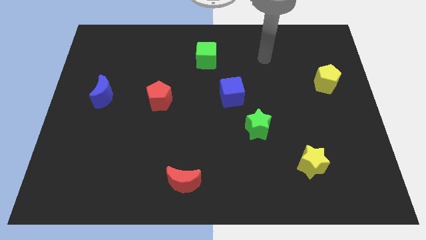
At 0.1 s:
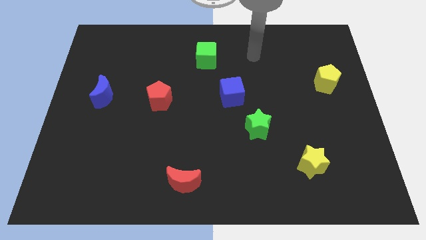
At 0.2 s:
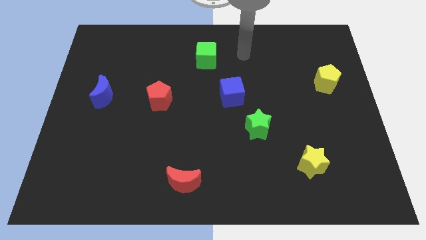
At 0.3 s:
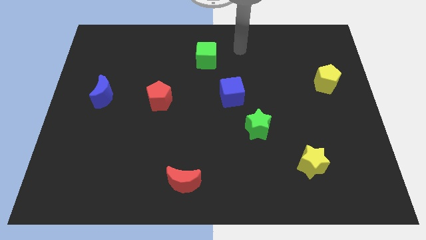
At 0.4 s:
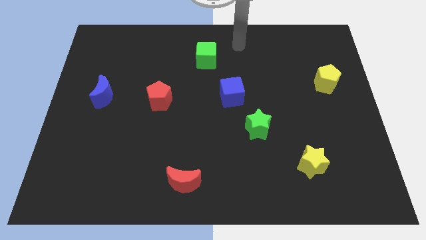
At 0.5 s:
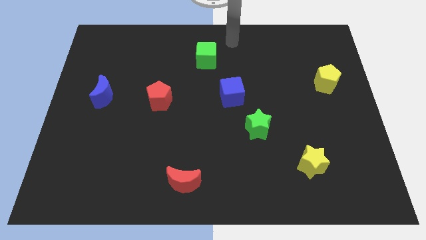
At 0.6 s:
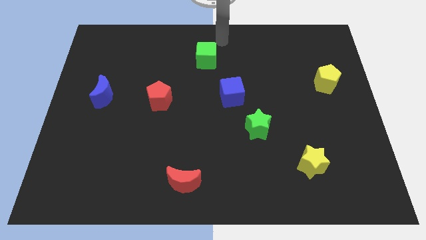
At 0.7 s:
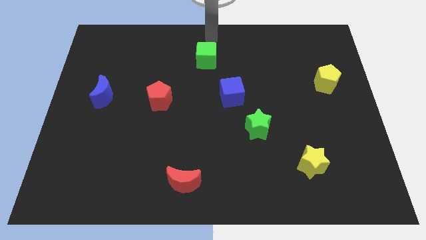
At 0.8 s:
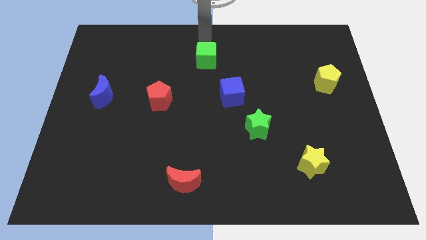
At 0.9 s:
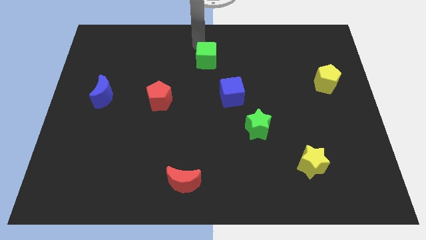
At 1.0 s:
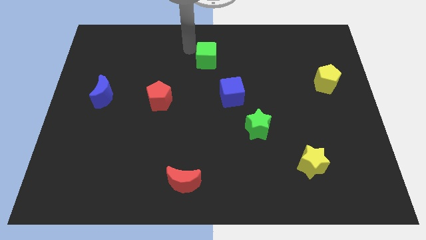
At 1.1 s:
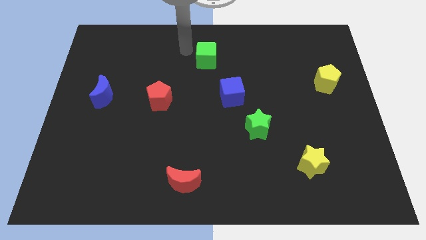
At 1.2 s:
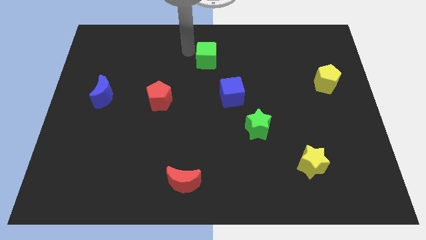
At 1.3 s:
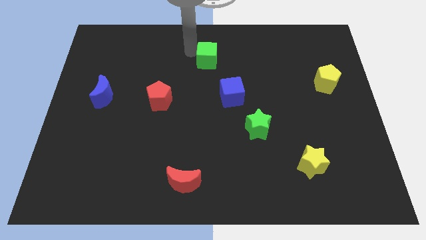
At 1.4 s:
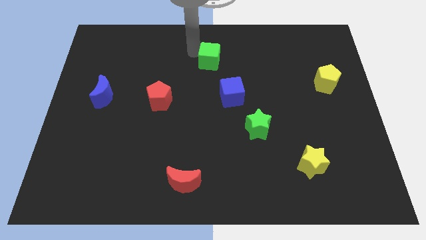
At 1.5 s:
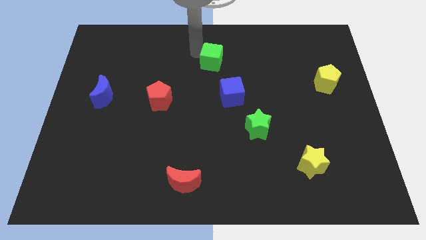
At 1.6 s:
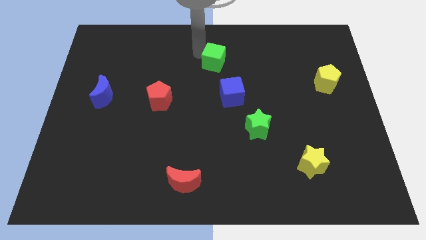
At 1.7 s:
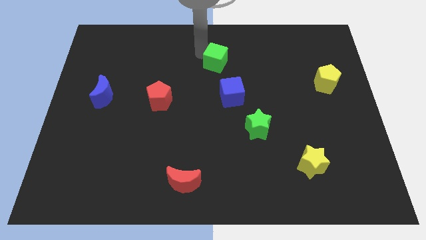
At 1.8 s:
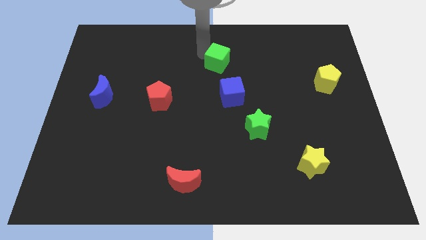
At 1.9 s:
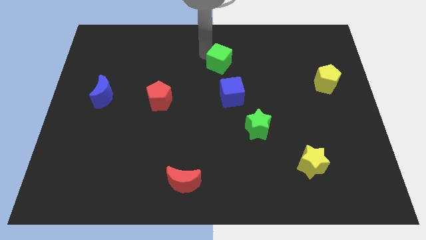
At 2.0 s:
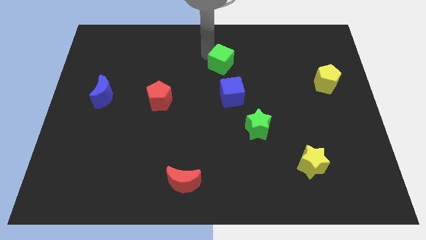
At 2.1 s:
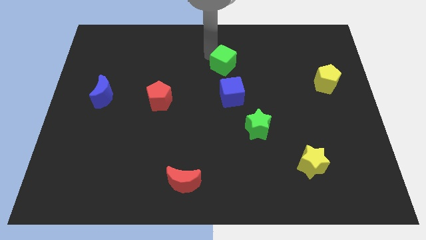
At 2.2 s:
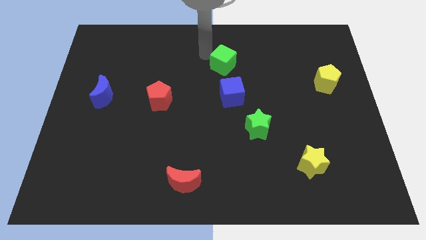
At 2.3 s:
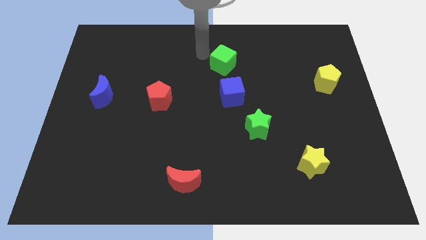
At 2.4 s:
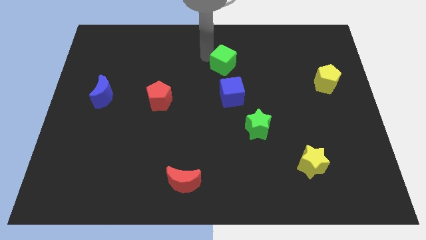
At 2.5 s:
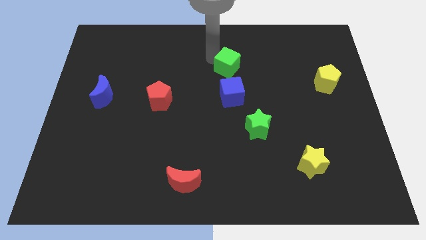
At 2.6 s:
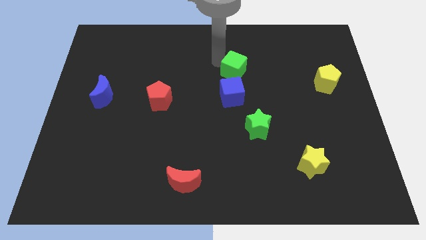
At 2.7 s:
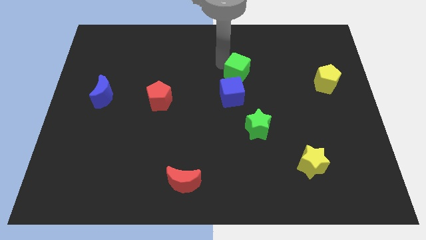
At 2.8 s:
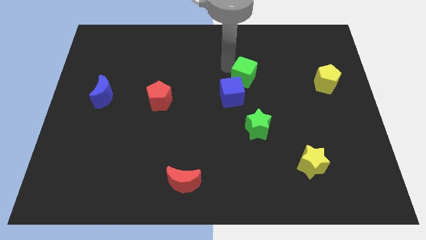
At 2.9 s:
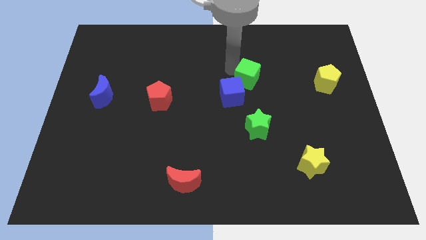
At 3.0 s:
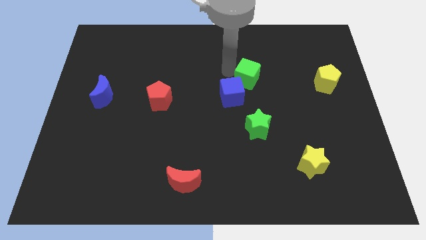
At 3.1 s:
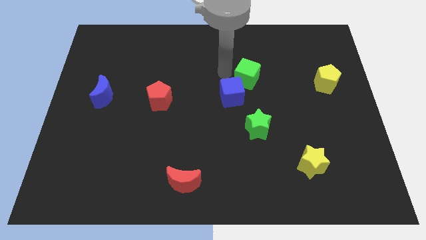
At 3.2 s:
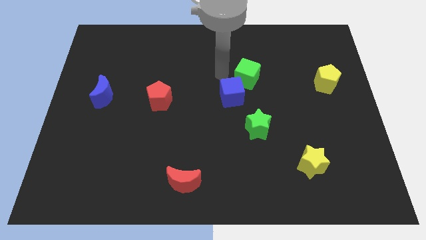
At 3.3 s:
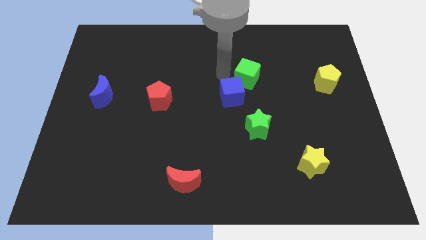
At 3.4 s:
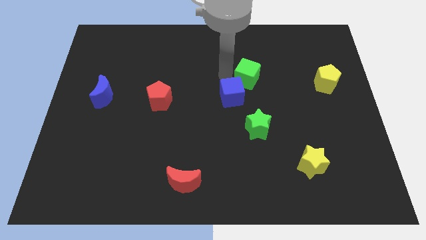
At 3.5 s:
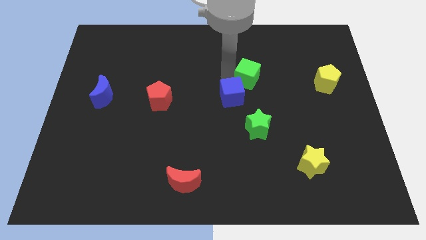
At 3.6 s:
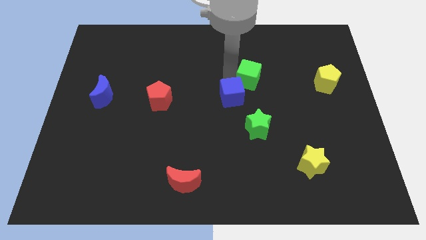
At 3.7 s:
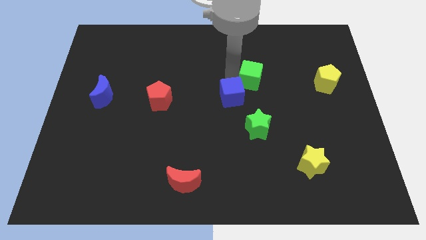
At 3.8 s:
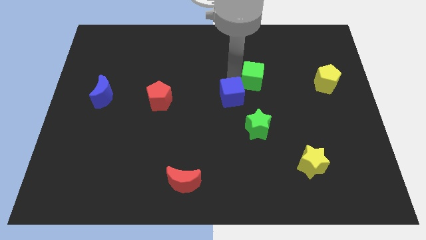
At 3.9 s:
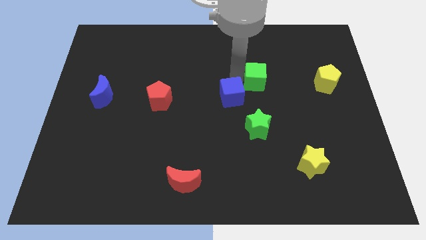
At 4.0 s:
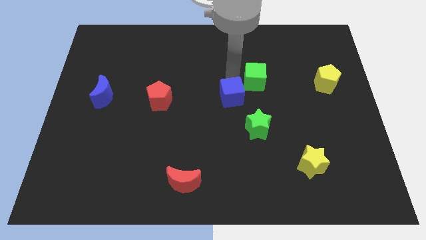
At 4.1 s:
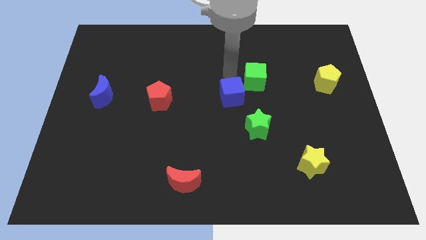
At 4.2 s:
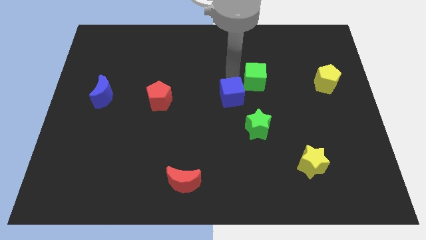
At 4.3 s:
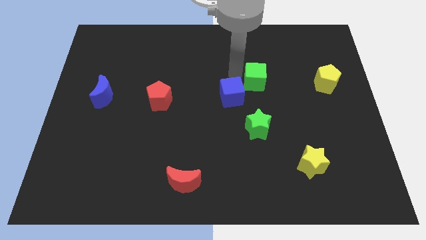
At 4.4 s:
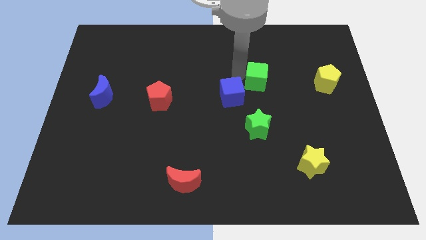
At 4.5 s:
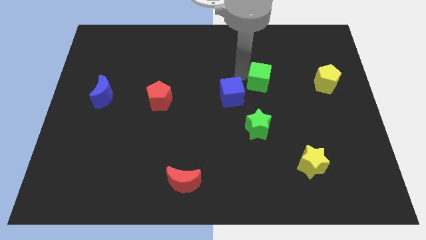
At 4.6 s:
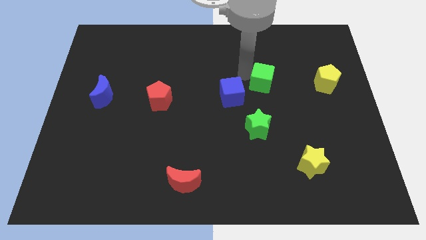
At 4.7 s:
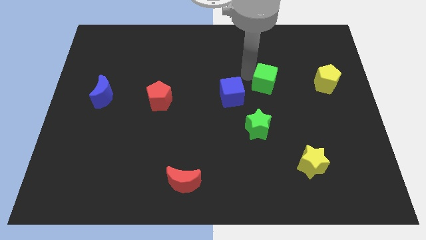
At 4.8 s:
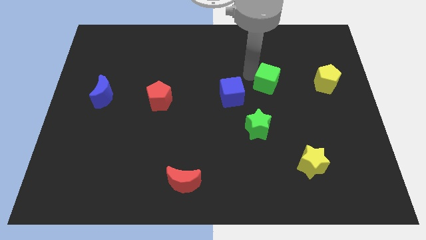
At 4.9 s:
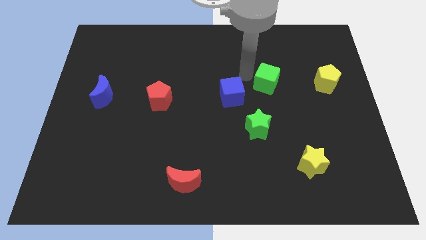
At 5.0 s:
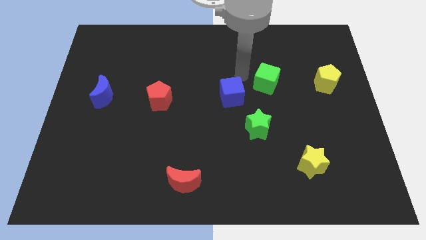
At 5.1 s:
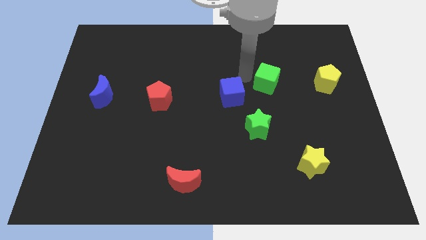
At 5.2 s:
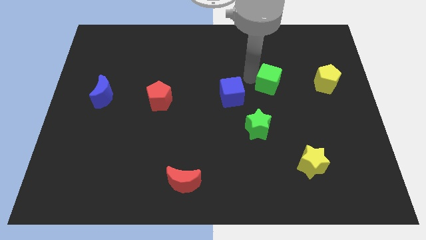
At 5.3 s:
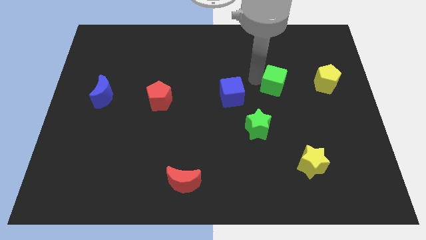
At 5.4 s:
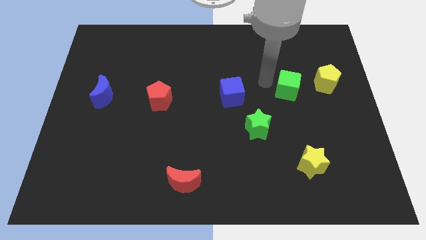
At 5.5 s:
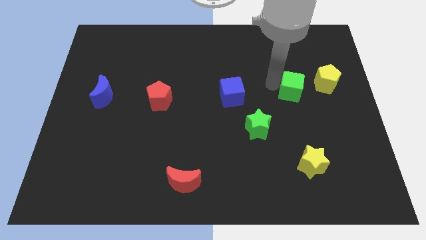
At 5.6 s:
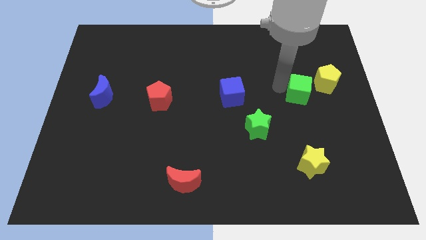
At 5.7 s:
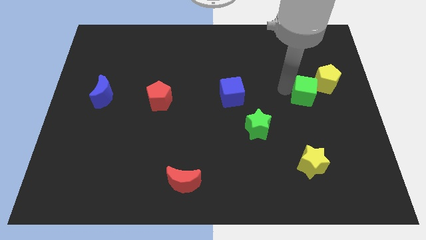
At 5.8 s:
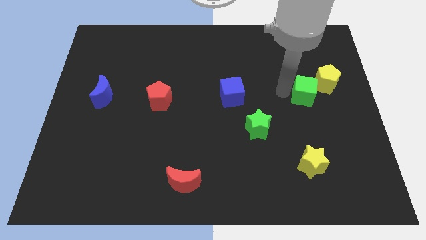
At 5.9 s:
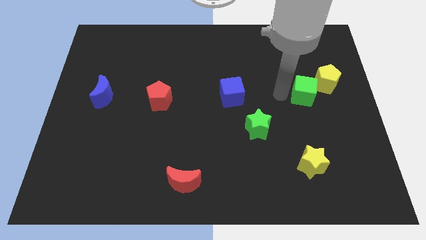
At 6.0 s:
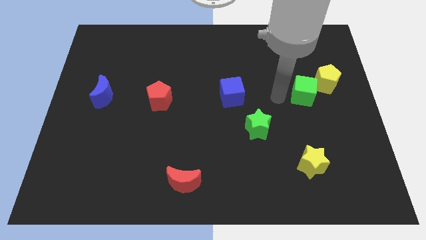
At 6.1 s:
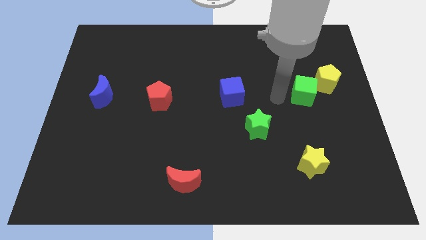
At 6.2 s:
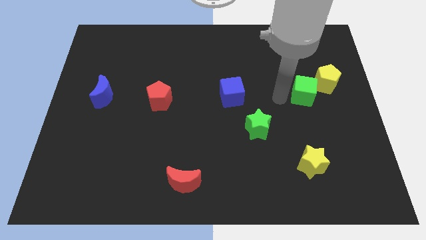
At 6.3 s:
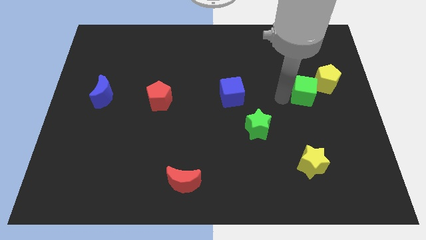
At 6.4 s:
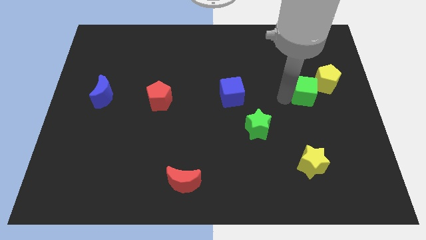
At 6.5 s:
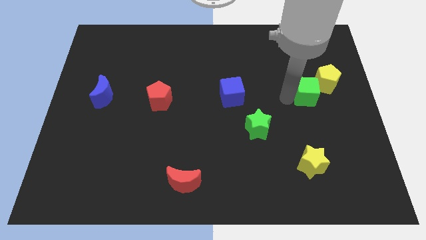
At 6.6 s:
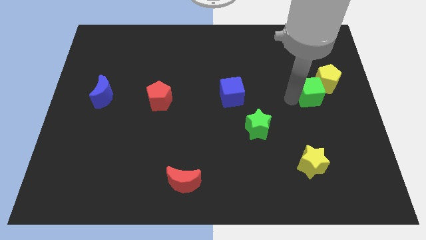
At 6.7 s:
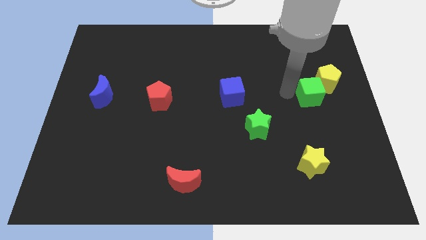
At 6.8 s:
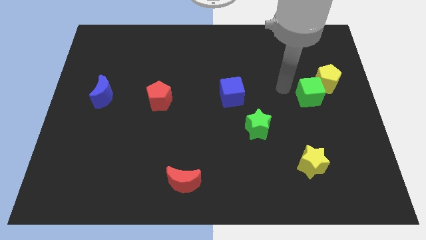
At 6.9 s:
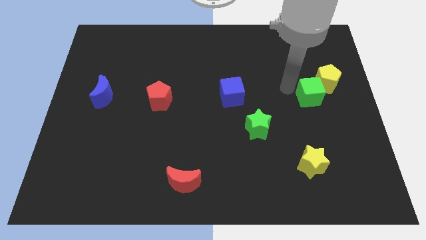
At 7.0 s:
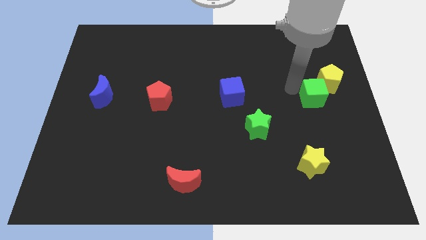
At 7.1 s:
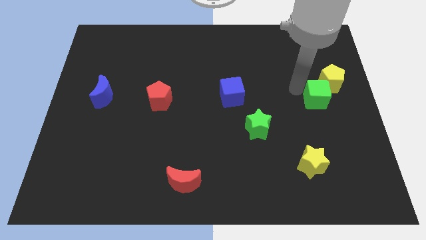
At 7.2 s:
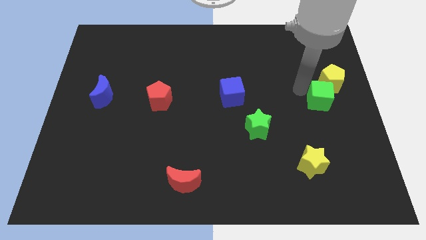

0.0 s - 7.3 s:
move the green cube to the center right
